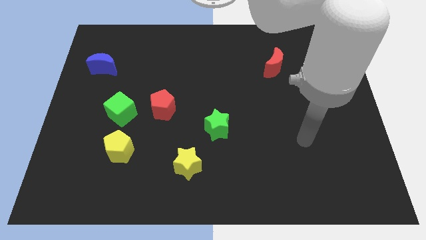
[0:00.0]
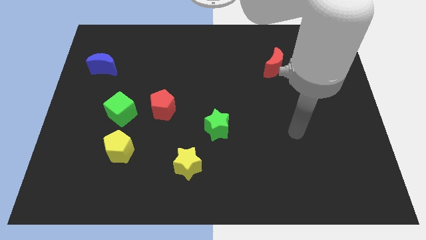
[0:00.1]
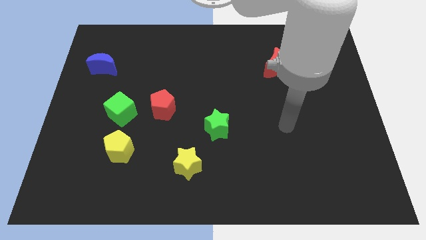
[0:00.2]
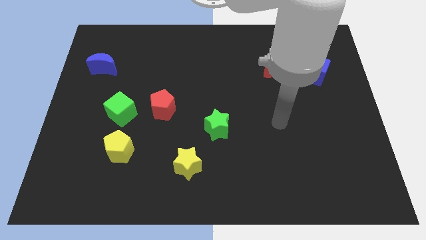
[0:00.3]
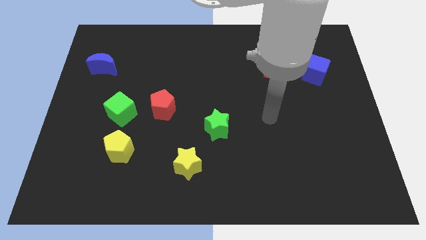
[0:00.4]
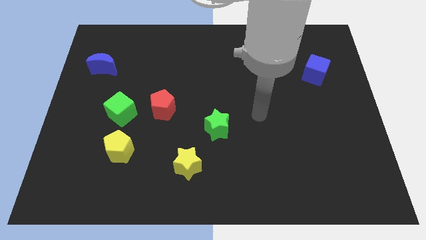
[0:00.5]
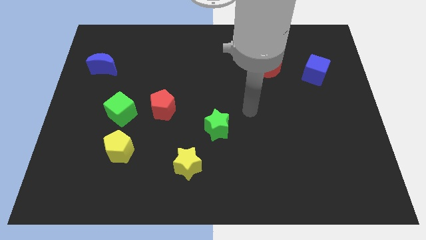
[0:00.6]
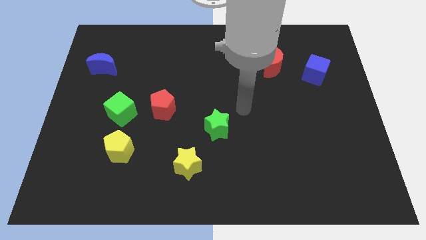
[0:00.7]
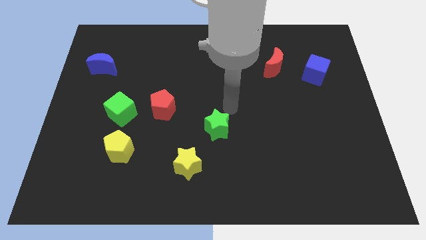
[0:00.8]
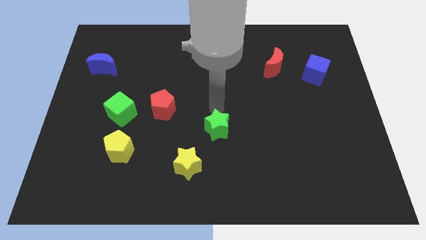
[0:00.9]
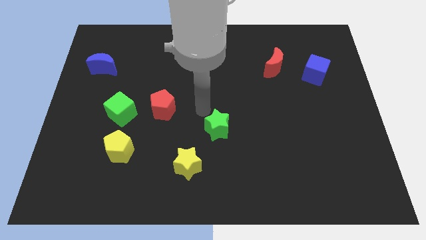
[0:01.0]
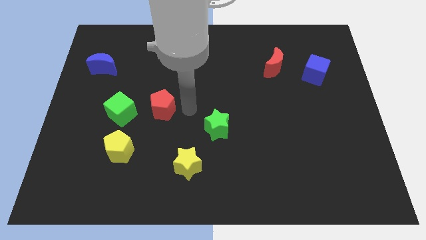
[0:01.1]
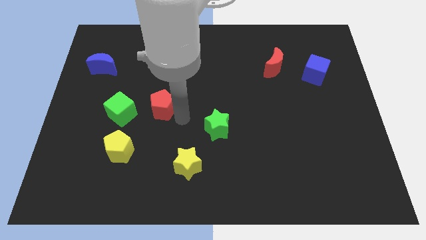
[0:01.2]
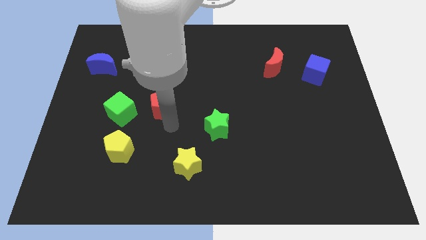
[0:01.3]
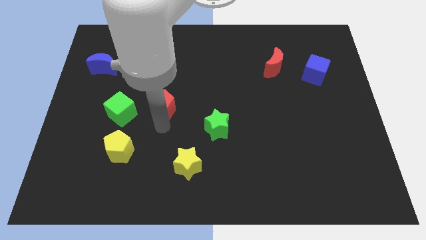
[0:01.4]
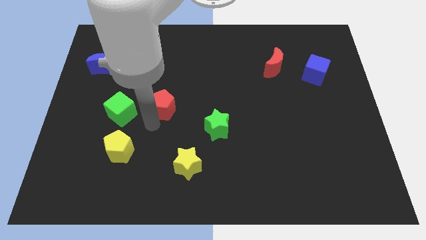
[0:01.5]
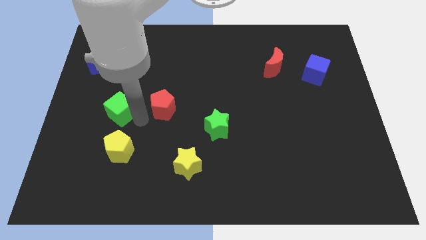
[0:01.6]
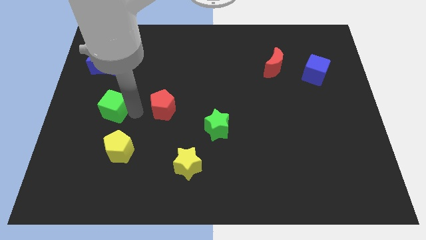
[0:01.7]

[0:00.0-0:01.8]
separate the red pentagon from the green cube

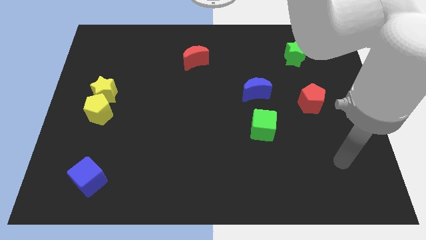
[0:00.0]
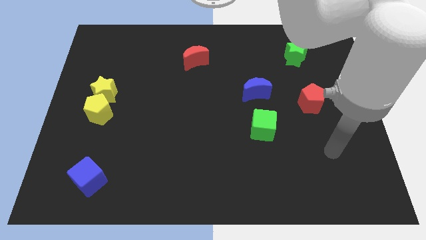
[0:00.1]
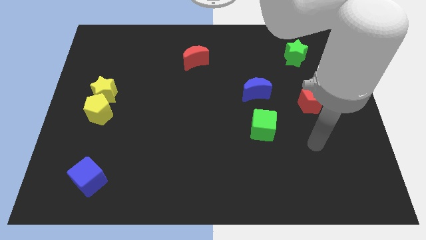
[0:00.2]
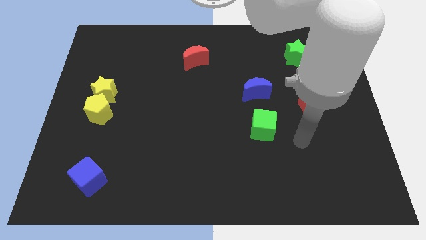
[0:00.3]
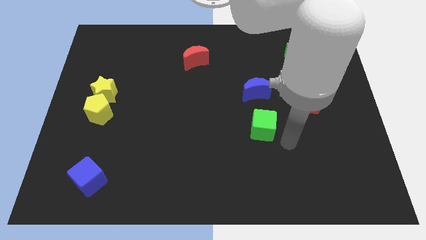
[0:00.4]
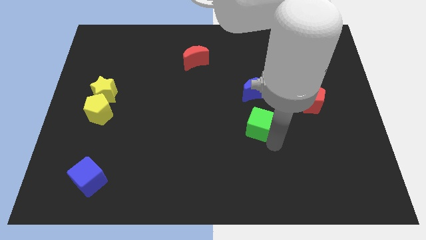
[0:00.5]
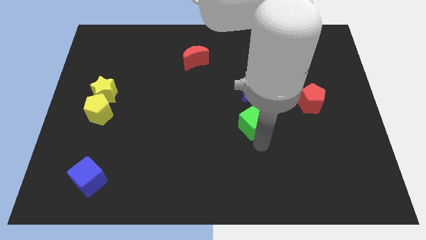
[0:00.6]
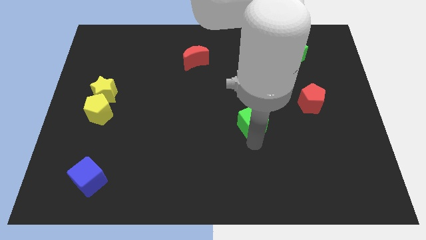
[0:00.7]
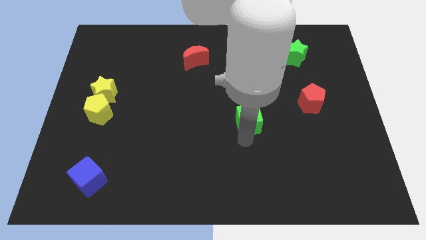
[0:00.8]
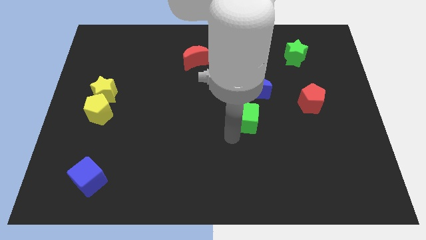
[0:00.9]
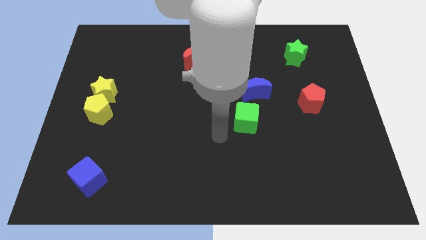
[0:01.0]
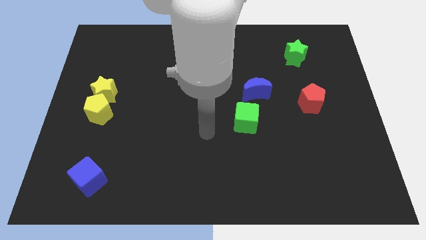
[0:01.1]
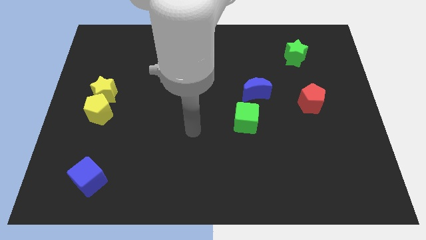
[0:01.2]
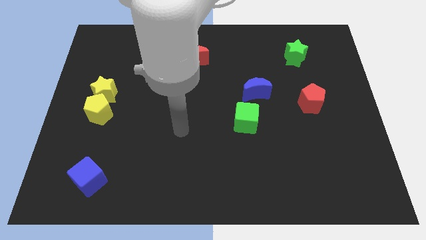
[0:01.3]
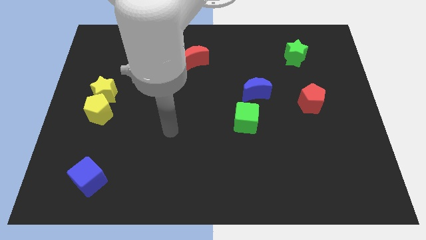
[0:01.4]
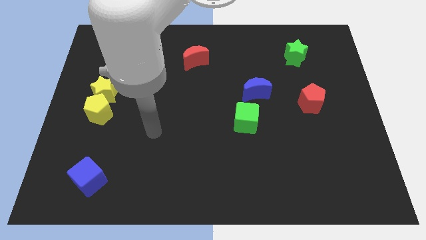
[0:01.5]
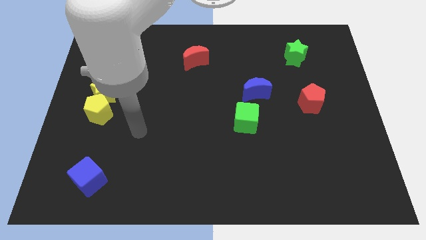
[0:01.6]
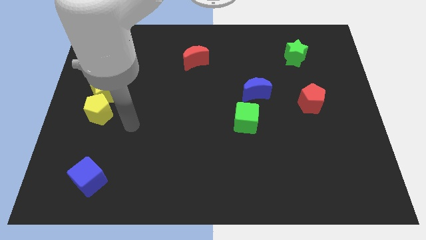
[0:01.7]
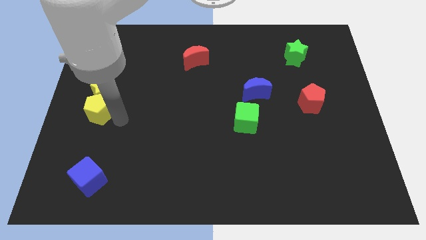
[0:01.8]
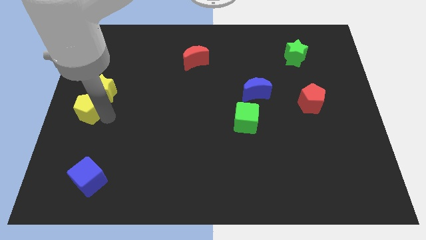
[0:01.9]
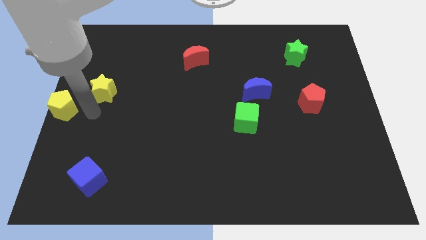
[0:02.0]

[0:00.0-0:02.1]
separate the yellow star from the yellow pentagon

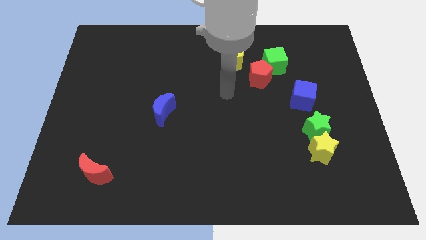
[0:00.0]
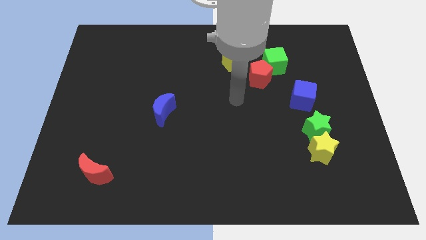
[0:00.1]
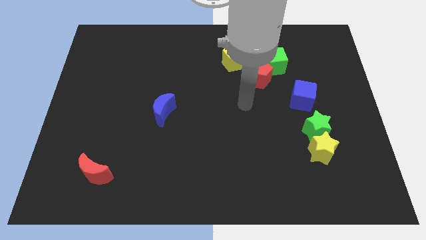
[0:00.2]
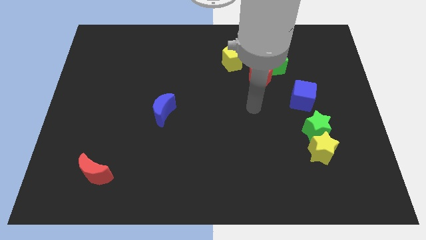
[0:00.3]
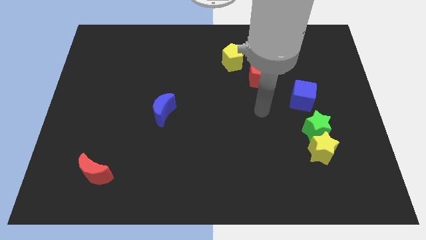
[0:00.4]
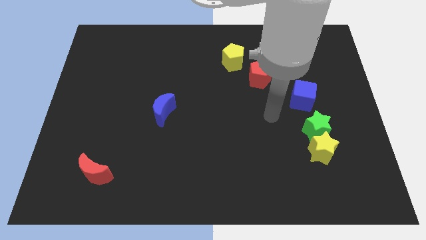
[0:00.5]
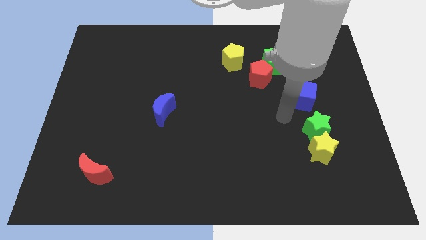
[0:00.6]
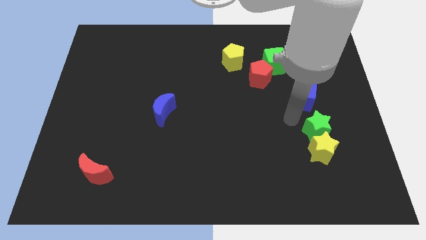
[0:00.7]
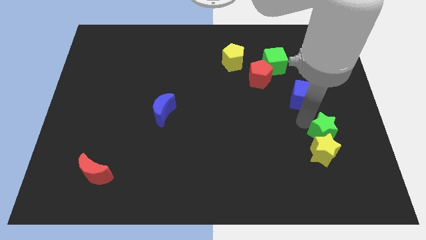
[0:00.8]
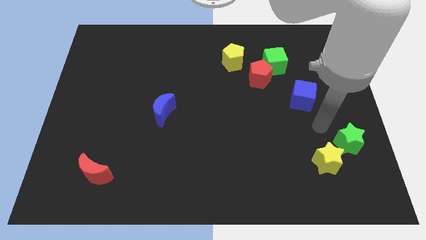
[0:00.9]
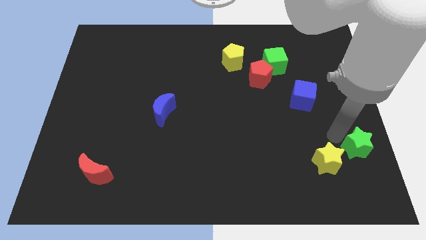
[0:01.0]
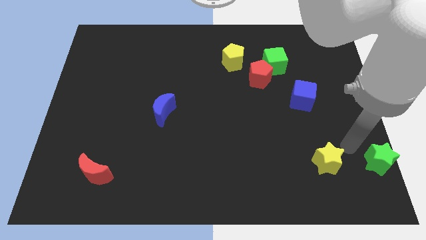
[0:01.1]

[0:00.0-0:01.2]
separate the yellow star from the green star

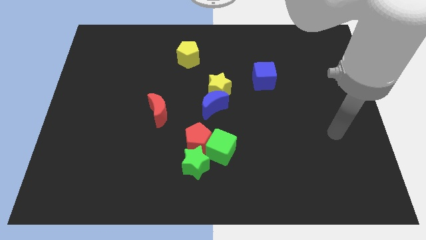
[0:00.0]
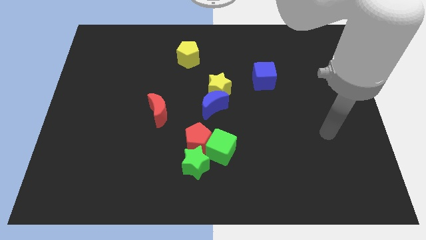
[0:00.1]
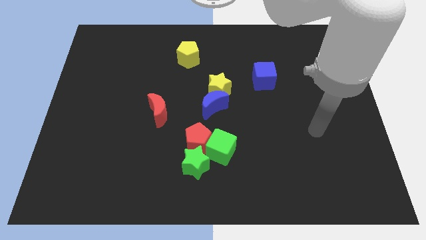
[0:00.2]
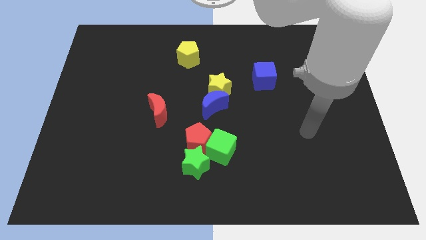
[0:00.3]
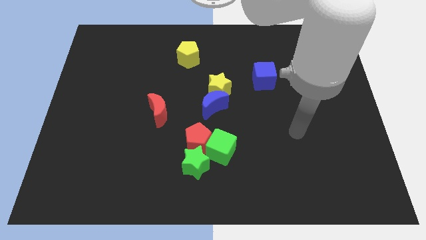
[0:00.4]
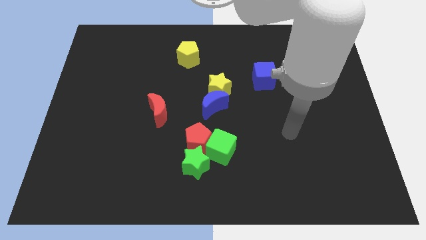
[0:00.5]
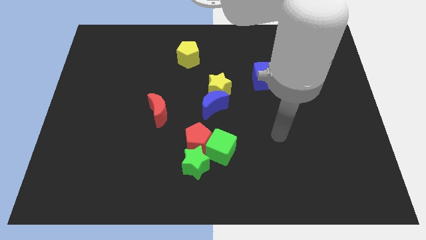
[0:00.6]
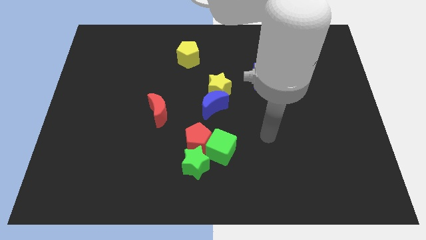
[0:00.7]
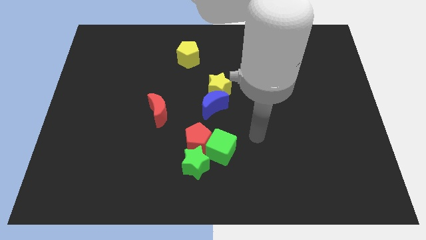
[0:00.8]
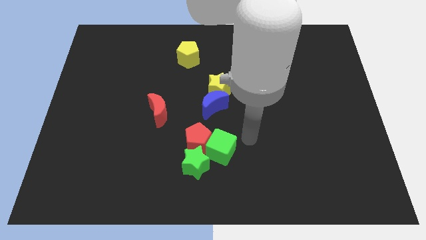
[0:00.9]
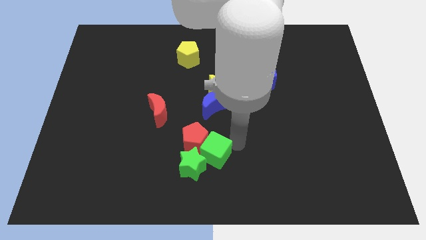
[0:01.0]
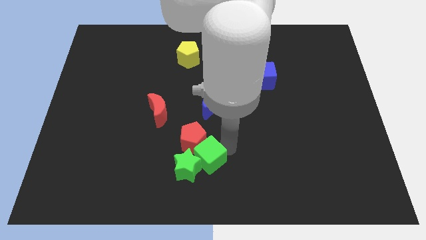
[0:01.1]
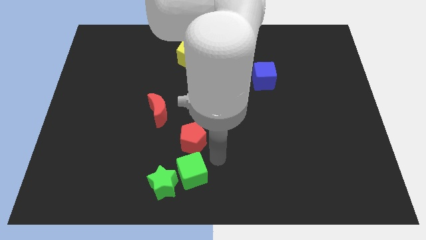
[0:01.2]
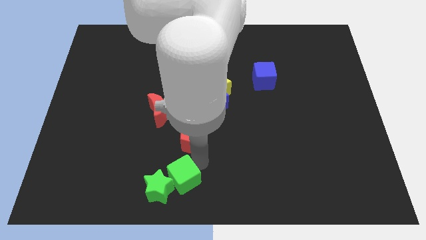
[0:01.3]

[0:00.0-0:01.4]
move the red pentagon away from the green cube and green star

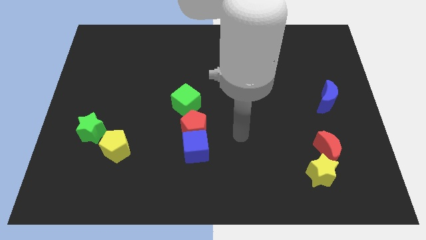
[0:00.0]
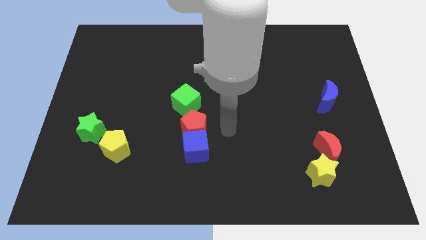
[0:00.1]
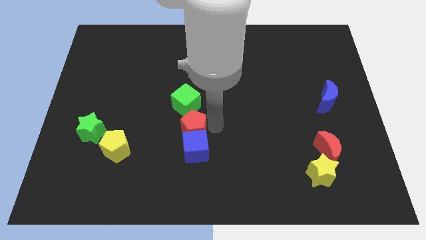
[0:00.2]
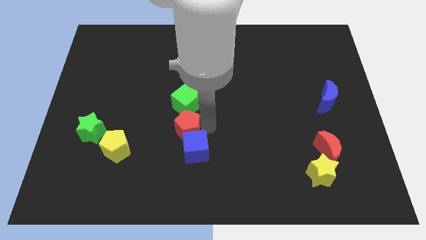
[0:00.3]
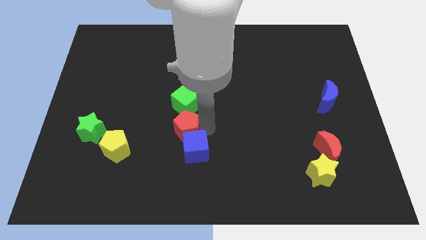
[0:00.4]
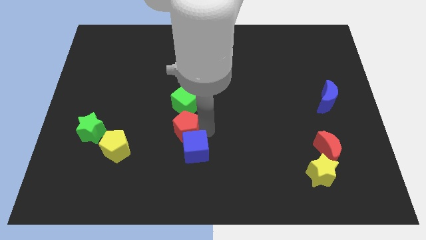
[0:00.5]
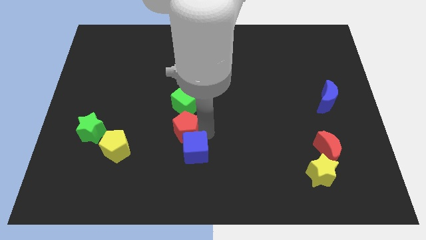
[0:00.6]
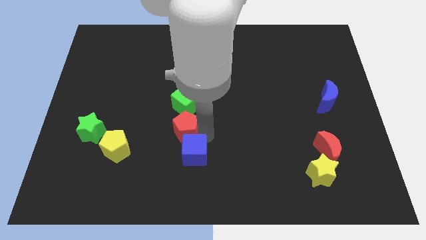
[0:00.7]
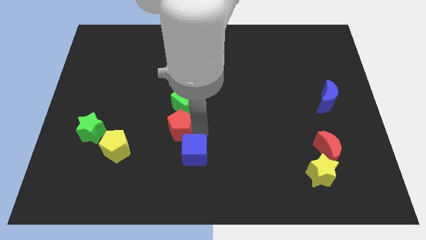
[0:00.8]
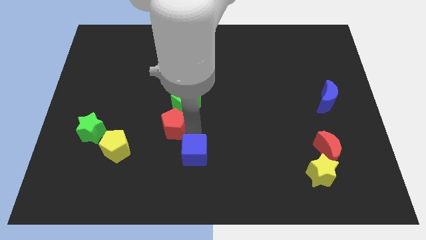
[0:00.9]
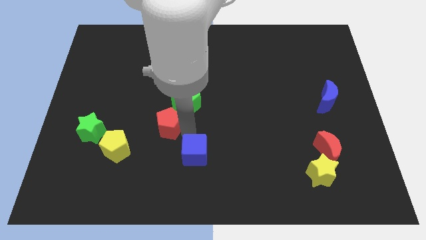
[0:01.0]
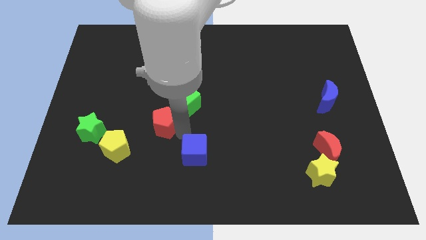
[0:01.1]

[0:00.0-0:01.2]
pull the blue cube apart from the red pentagon

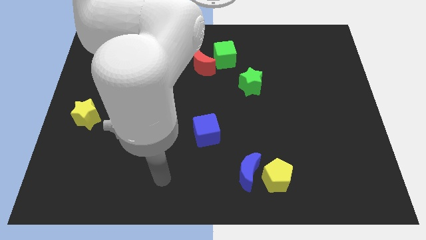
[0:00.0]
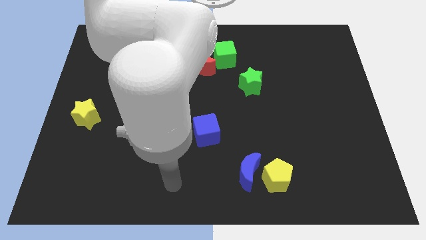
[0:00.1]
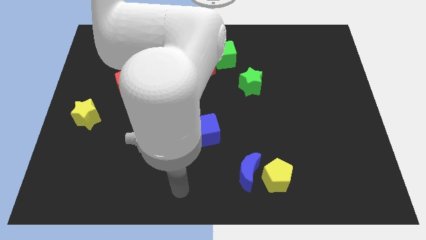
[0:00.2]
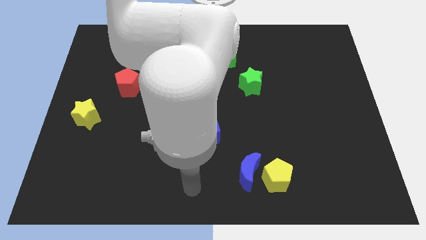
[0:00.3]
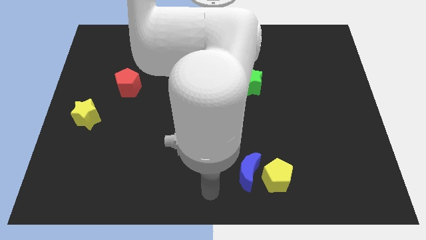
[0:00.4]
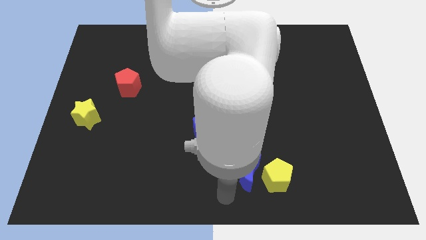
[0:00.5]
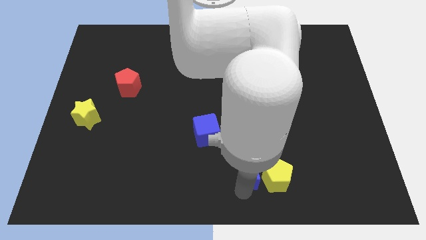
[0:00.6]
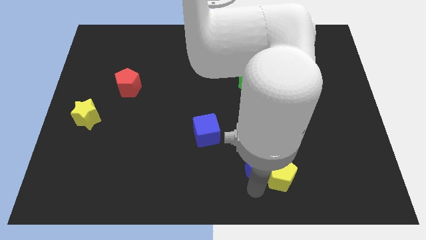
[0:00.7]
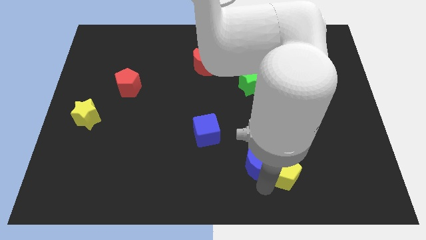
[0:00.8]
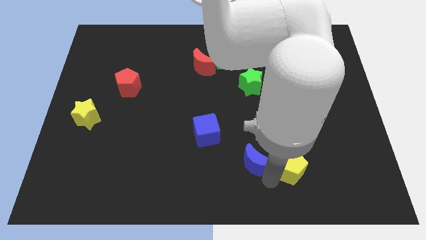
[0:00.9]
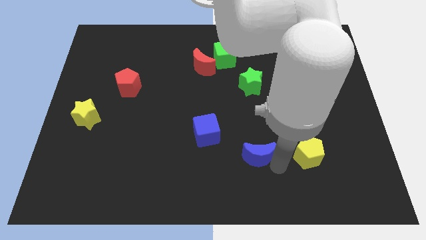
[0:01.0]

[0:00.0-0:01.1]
move the blue moon away from the yellow pentagon

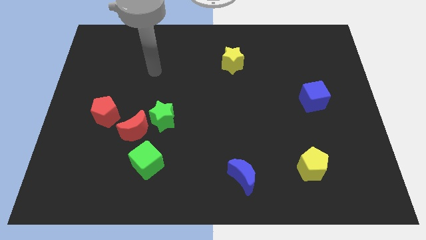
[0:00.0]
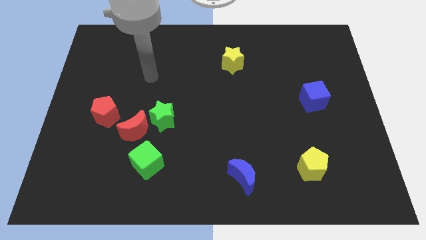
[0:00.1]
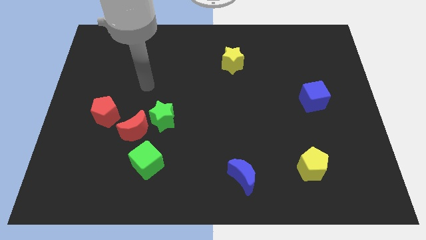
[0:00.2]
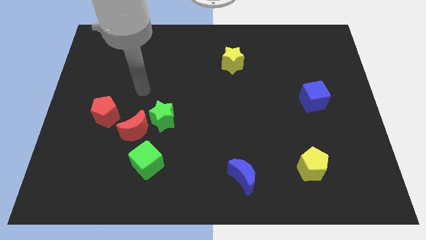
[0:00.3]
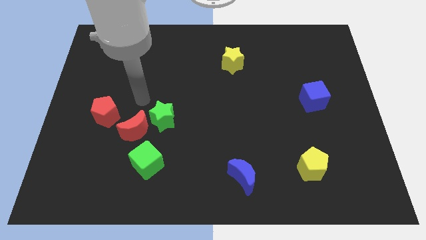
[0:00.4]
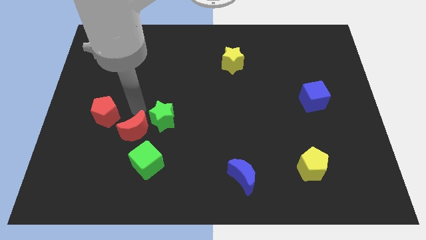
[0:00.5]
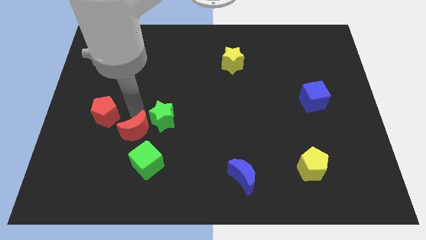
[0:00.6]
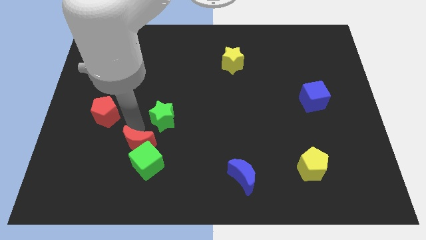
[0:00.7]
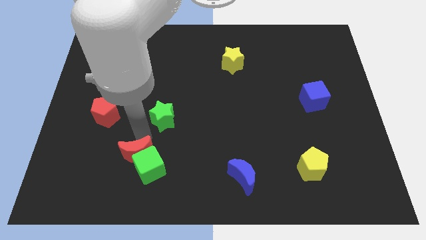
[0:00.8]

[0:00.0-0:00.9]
move the green star away from the red moon
